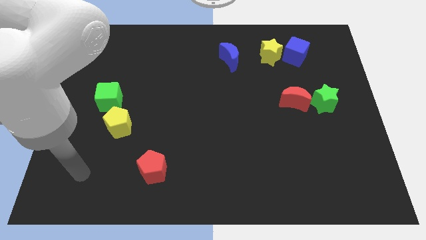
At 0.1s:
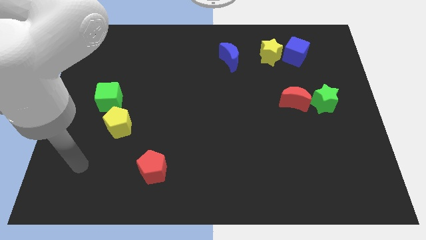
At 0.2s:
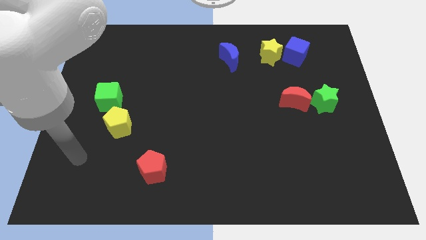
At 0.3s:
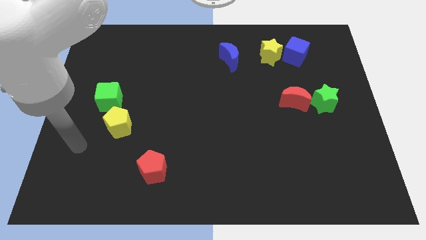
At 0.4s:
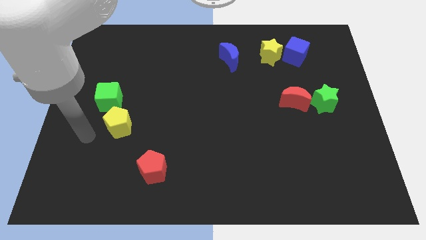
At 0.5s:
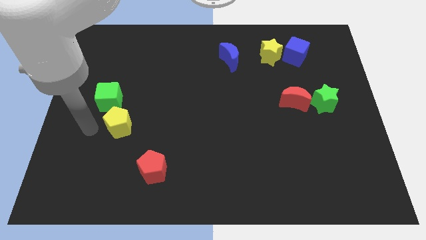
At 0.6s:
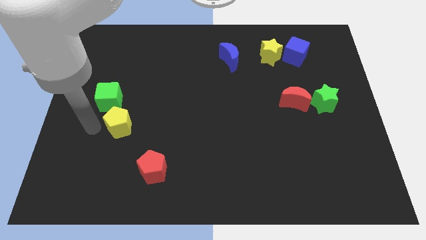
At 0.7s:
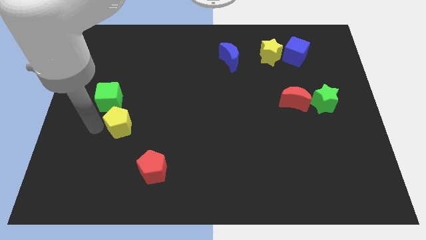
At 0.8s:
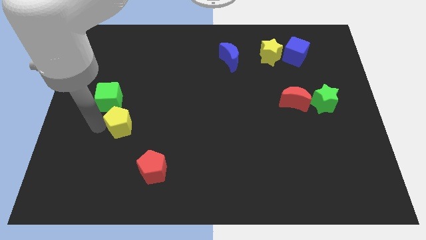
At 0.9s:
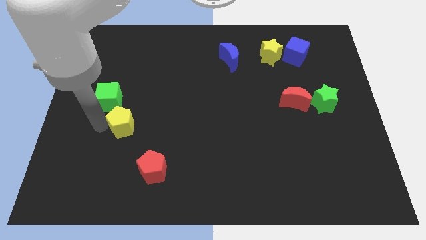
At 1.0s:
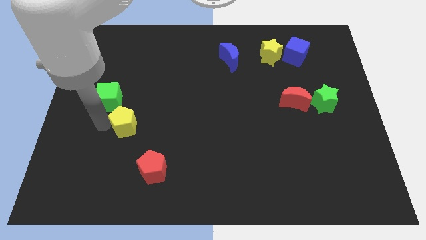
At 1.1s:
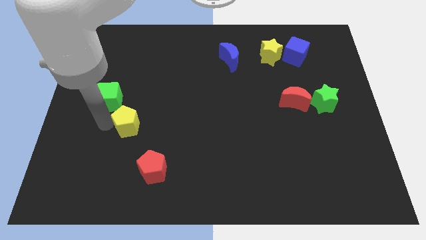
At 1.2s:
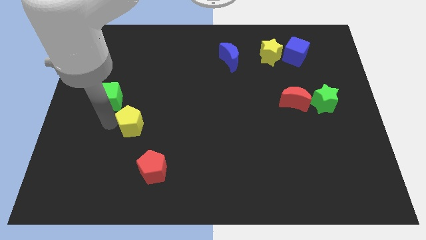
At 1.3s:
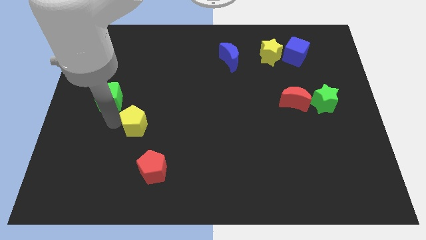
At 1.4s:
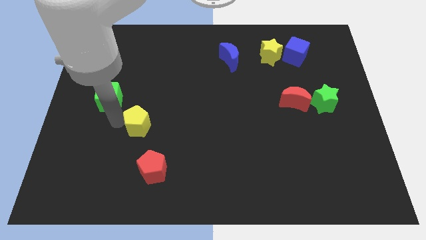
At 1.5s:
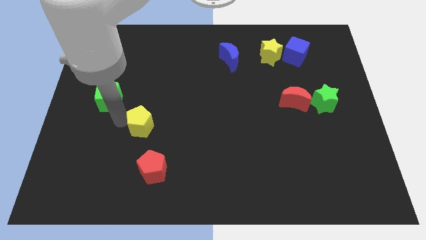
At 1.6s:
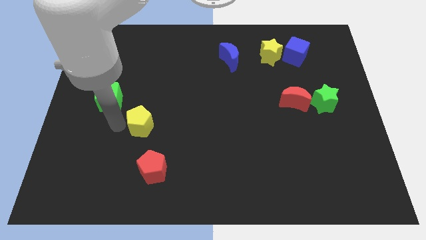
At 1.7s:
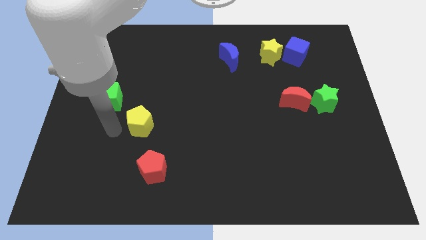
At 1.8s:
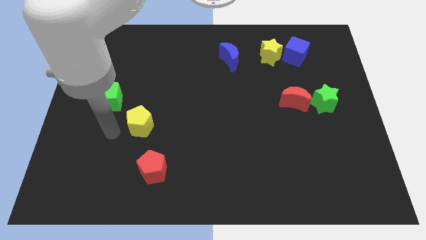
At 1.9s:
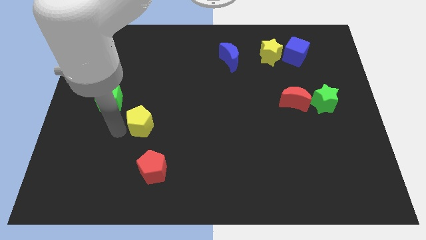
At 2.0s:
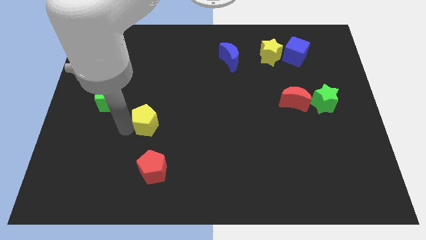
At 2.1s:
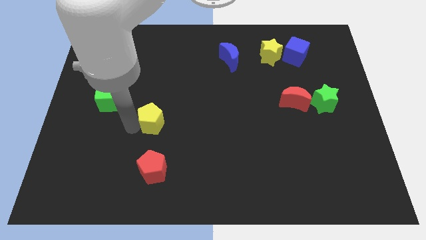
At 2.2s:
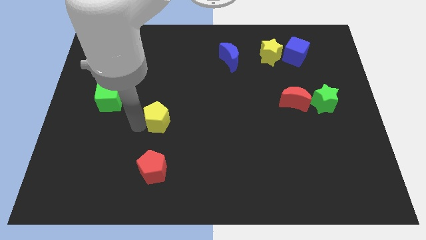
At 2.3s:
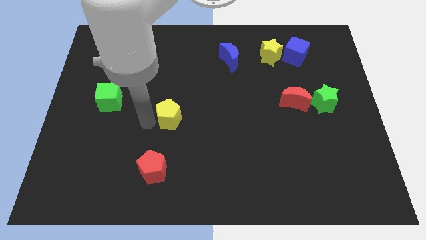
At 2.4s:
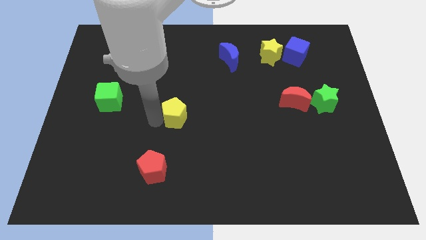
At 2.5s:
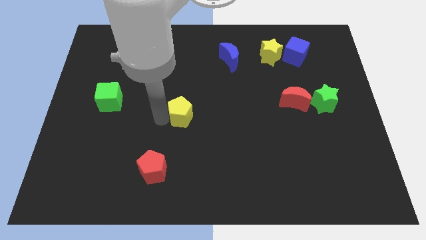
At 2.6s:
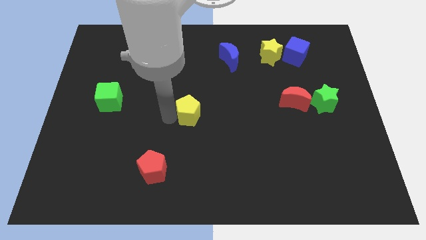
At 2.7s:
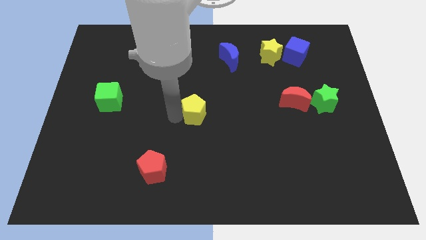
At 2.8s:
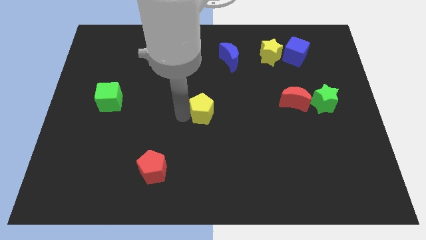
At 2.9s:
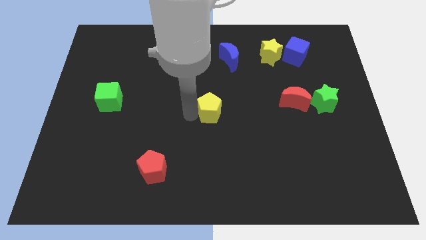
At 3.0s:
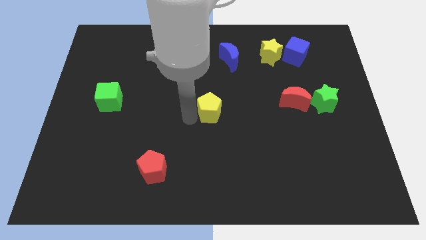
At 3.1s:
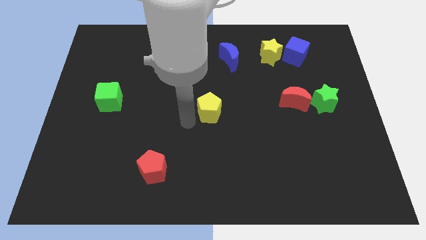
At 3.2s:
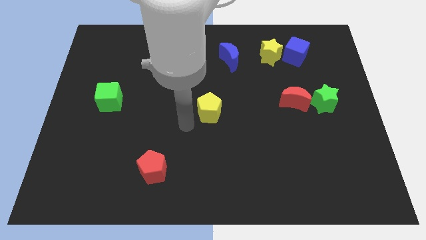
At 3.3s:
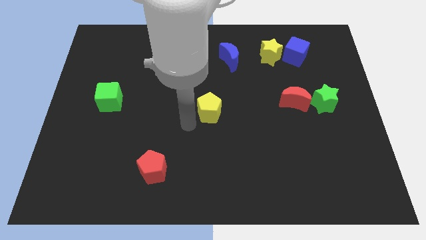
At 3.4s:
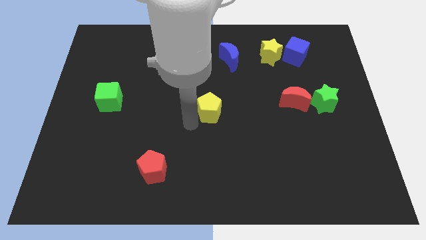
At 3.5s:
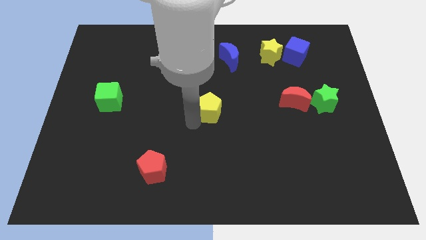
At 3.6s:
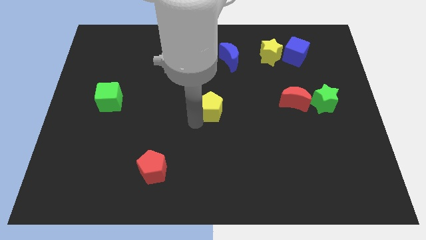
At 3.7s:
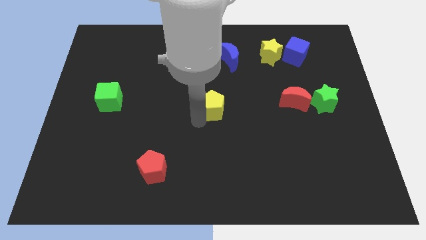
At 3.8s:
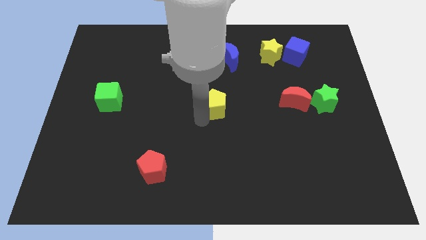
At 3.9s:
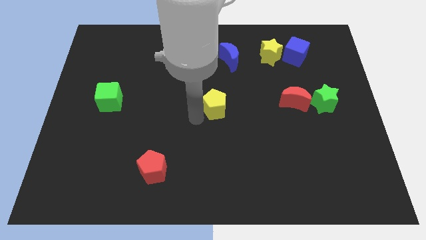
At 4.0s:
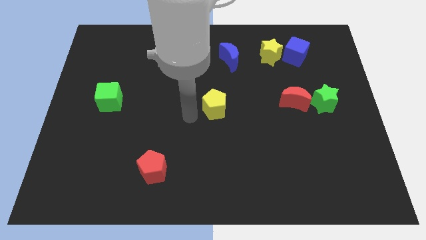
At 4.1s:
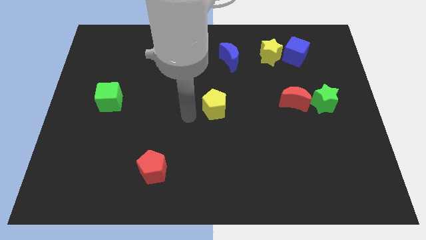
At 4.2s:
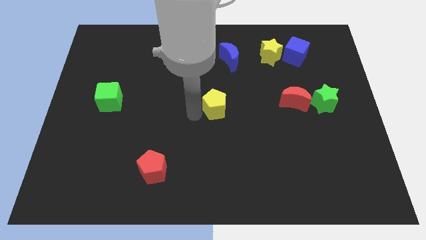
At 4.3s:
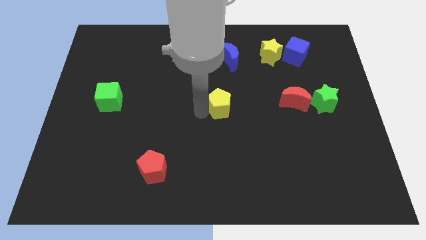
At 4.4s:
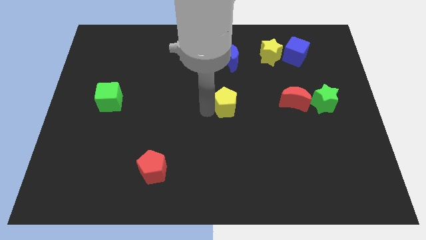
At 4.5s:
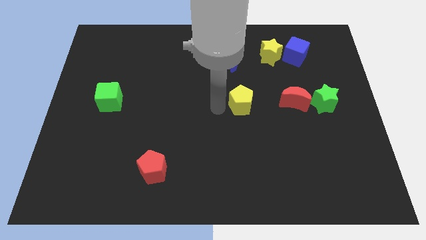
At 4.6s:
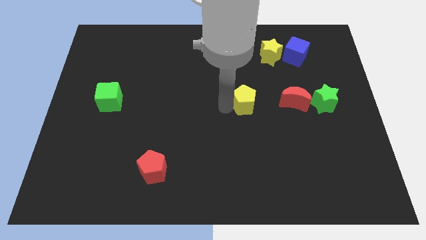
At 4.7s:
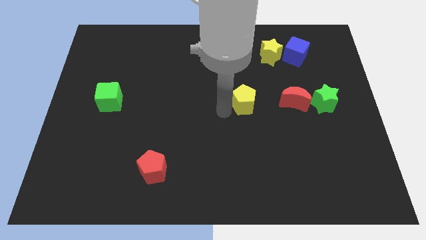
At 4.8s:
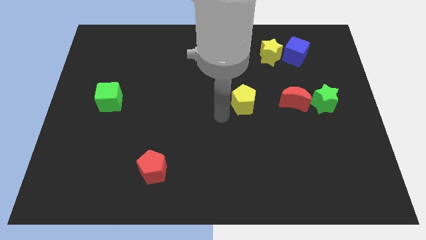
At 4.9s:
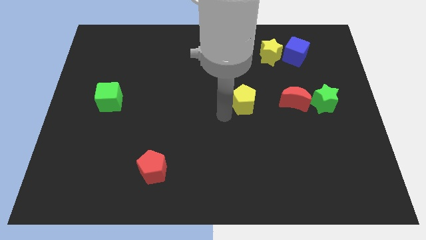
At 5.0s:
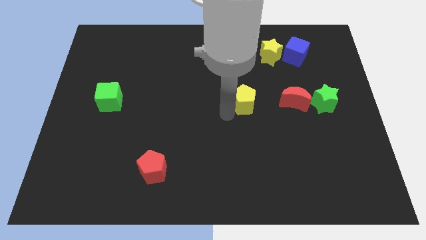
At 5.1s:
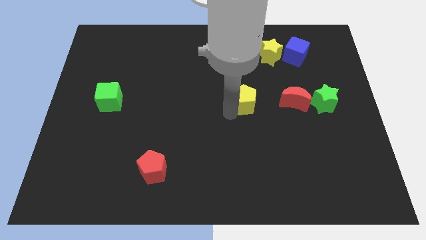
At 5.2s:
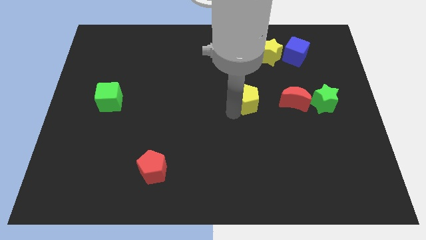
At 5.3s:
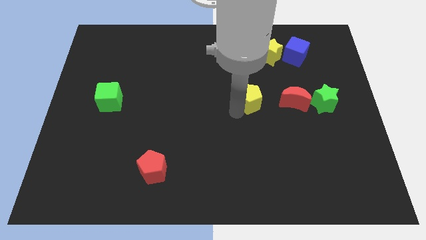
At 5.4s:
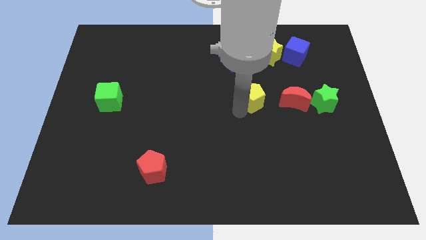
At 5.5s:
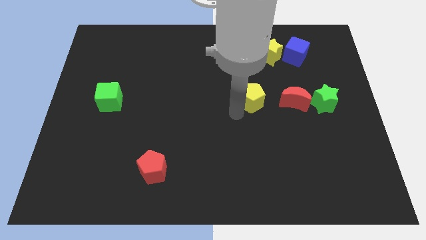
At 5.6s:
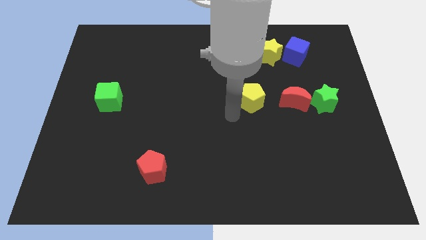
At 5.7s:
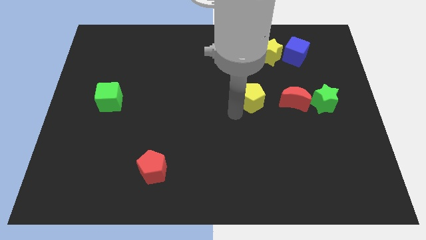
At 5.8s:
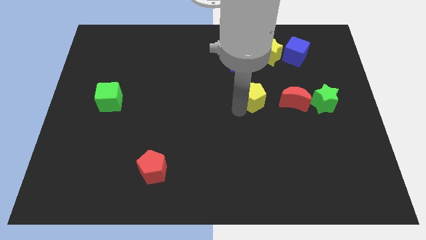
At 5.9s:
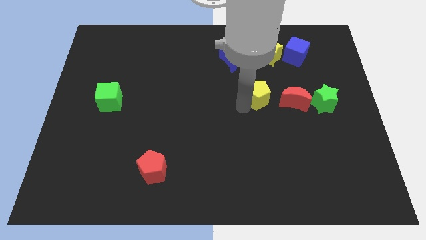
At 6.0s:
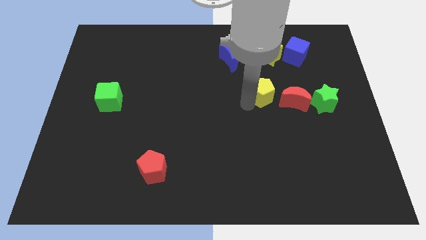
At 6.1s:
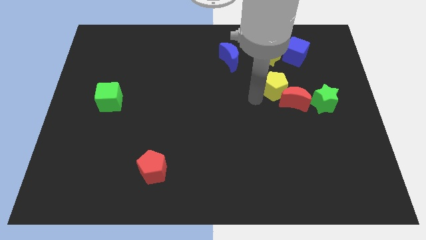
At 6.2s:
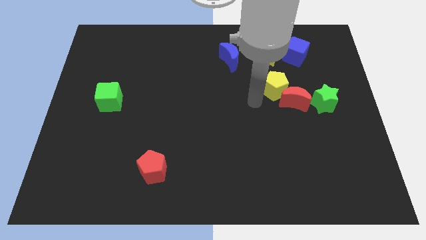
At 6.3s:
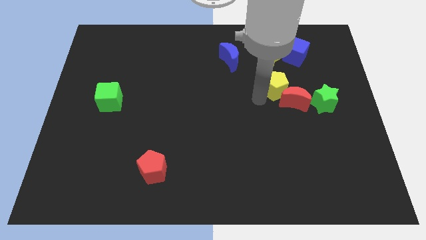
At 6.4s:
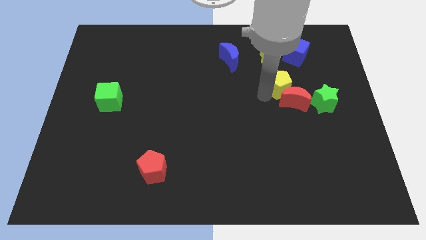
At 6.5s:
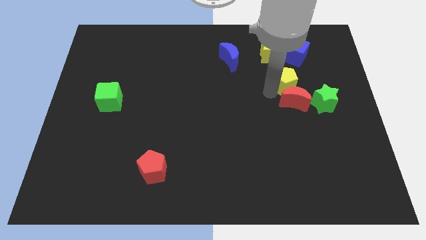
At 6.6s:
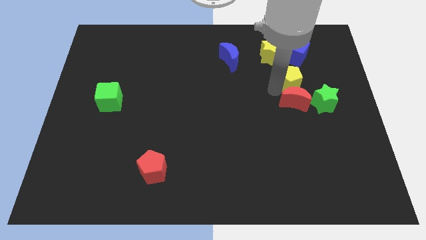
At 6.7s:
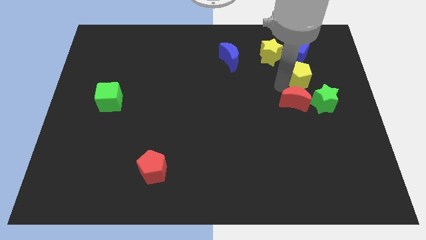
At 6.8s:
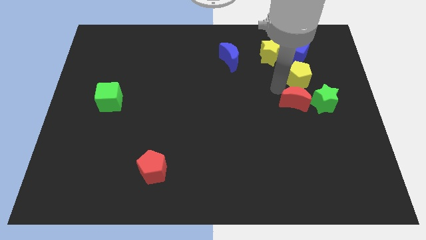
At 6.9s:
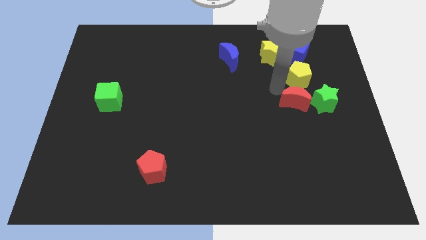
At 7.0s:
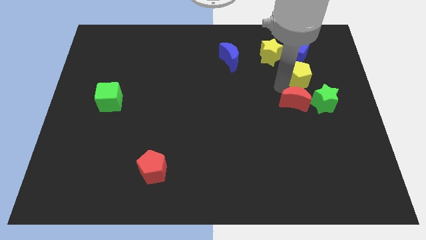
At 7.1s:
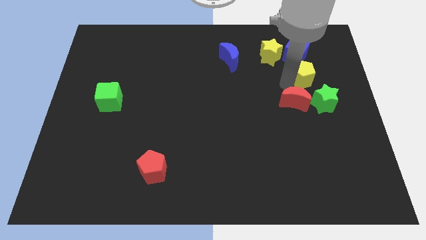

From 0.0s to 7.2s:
push the yellow pentagon to the top side of the green star
